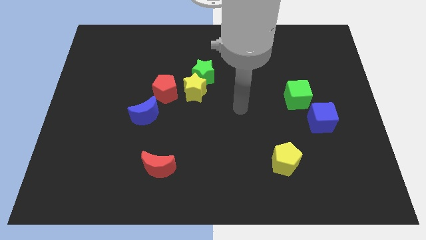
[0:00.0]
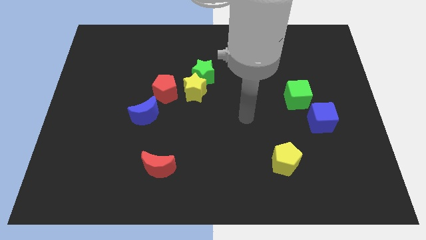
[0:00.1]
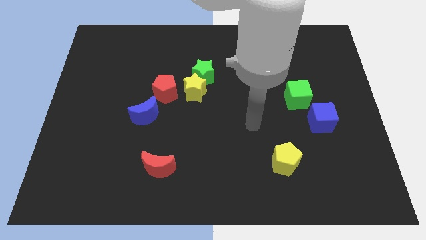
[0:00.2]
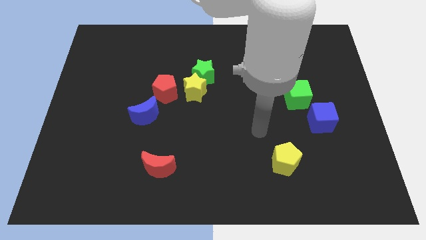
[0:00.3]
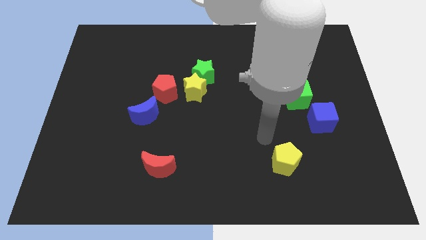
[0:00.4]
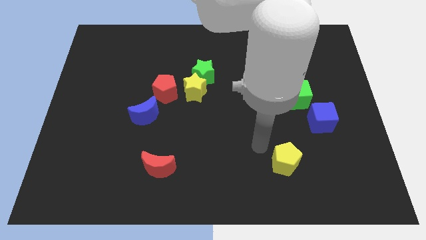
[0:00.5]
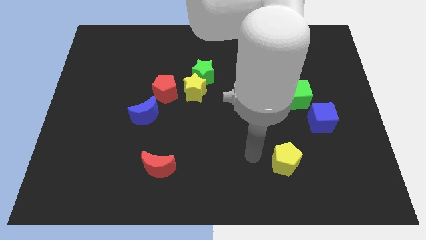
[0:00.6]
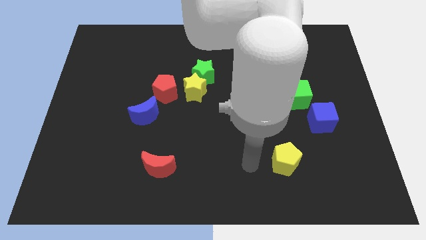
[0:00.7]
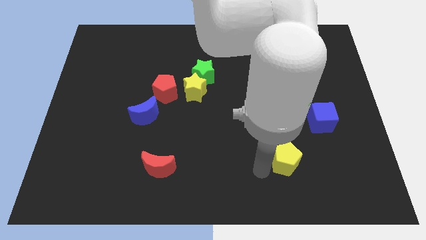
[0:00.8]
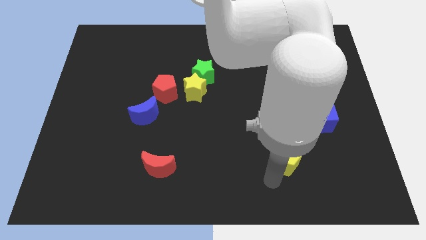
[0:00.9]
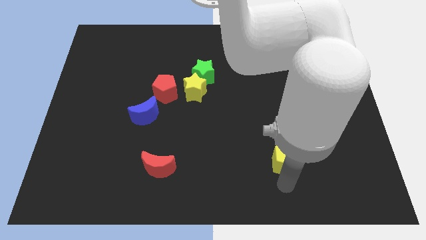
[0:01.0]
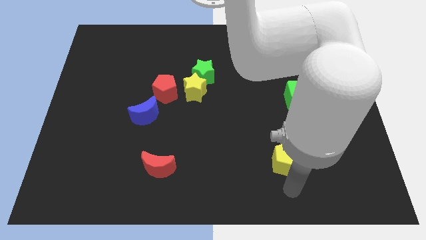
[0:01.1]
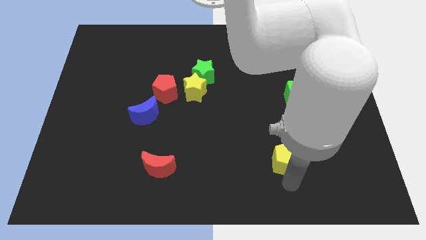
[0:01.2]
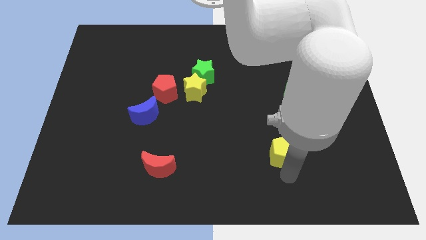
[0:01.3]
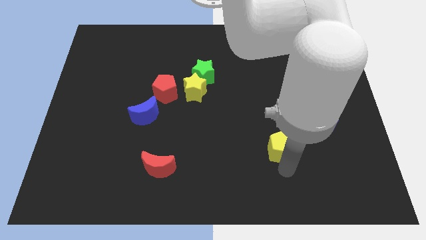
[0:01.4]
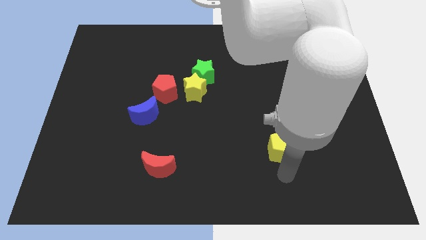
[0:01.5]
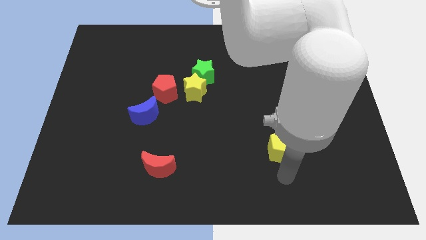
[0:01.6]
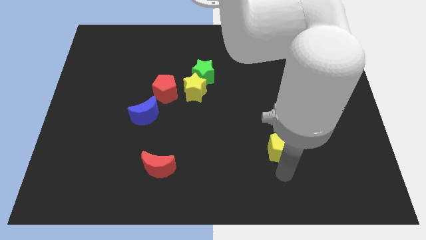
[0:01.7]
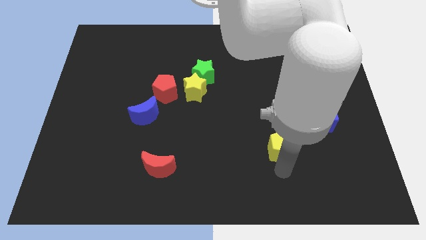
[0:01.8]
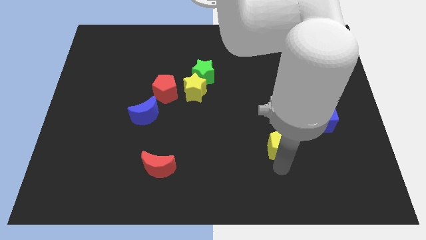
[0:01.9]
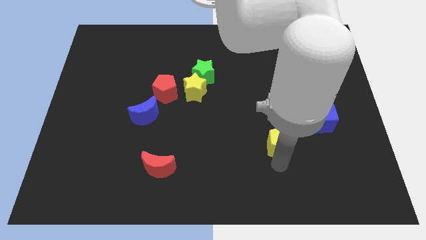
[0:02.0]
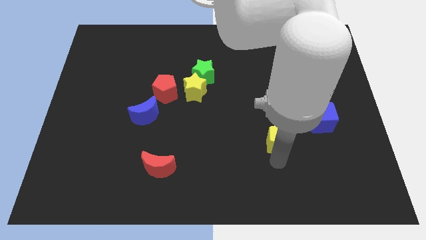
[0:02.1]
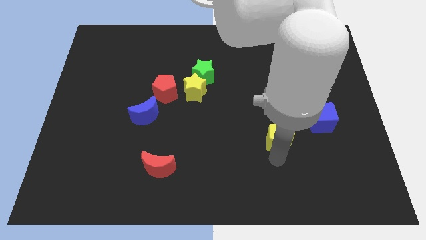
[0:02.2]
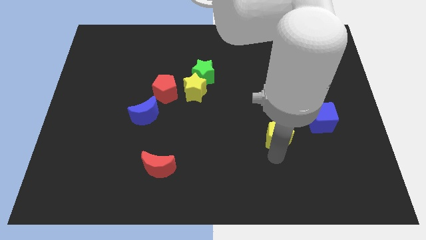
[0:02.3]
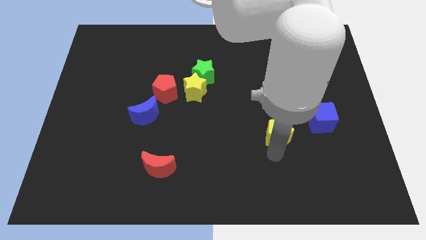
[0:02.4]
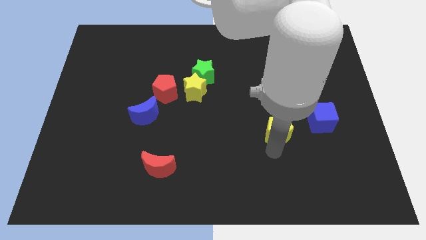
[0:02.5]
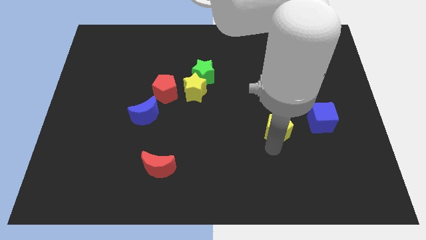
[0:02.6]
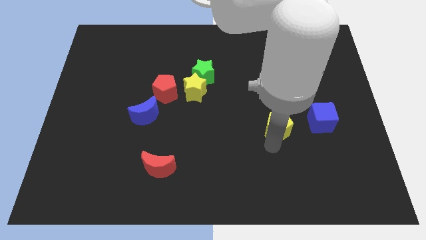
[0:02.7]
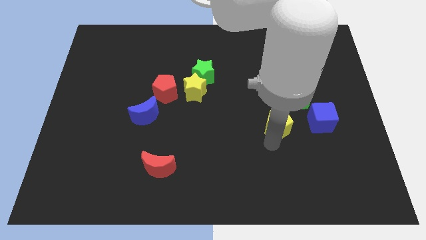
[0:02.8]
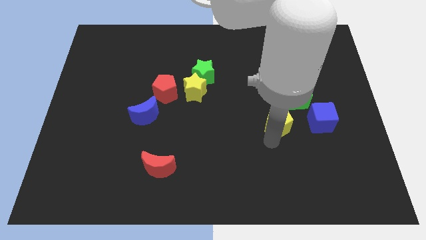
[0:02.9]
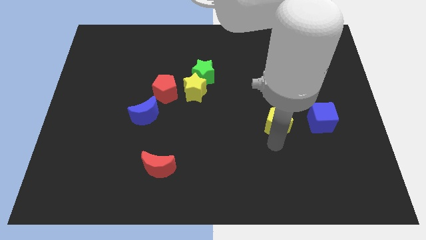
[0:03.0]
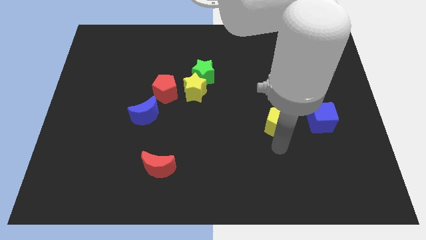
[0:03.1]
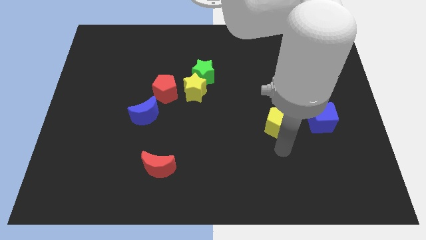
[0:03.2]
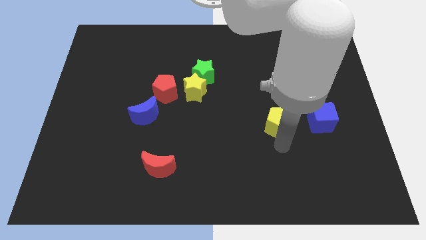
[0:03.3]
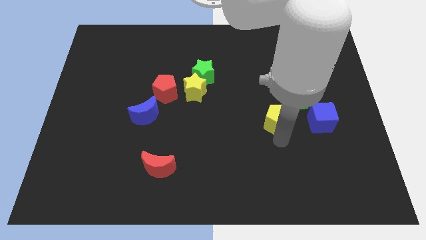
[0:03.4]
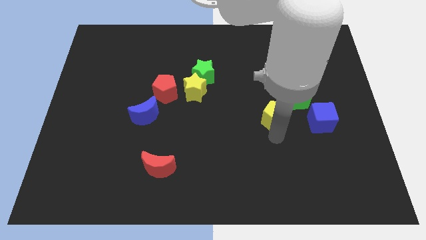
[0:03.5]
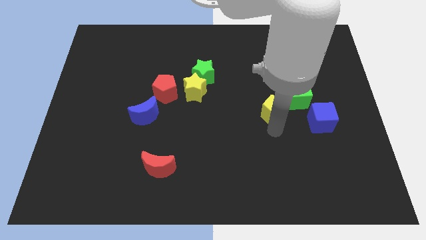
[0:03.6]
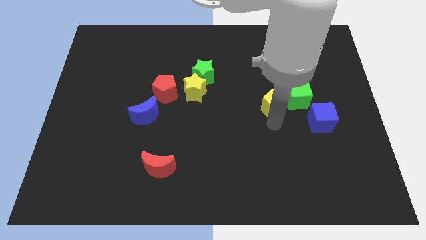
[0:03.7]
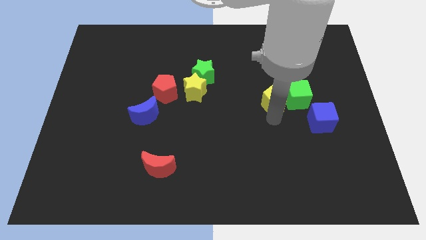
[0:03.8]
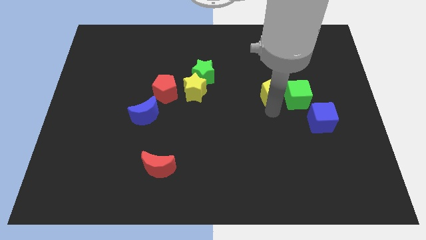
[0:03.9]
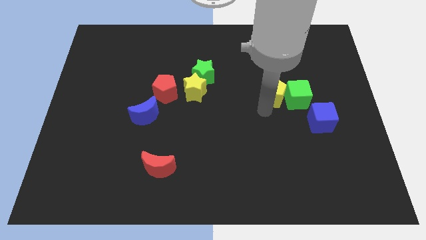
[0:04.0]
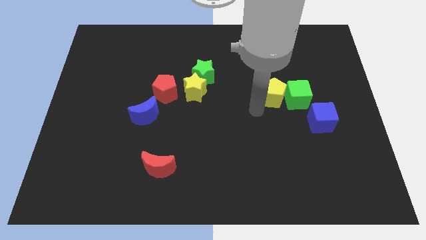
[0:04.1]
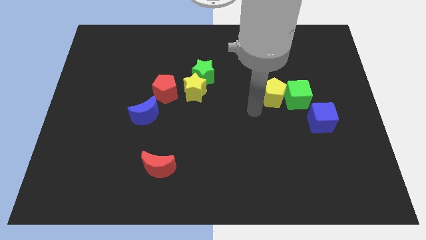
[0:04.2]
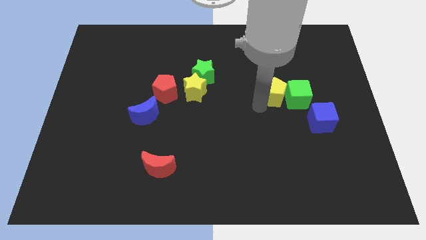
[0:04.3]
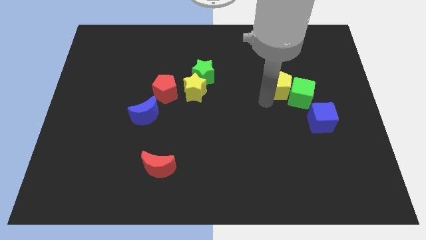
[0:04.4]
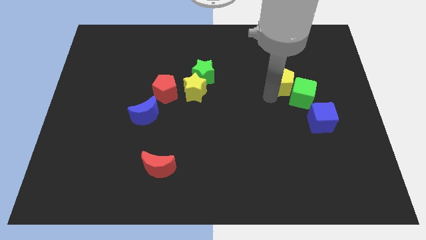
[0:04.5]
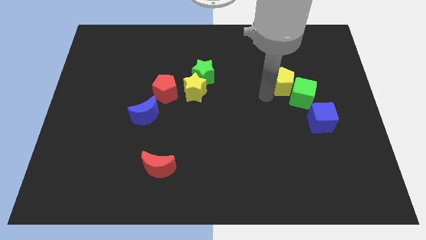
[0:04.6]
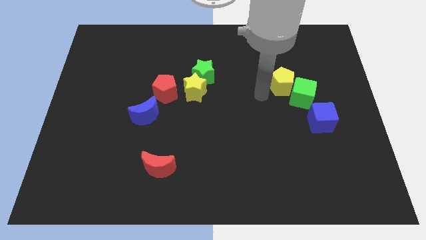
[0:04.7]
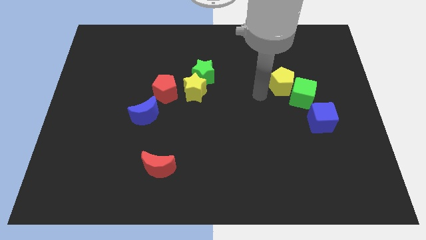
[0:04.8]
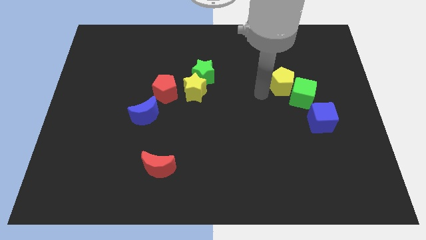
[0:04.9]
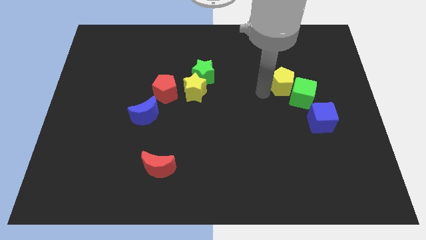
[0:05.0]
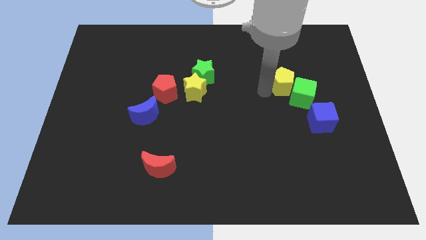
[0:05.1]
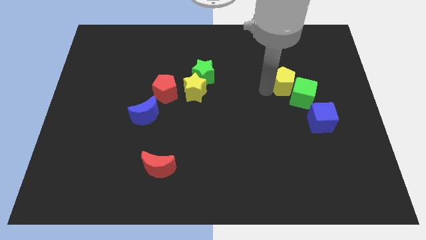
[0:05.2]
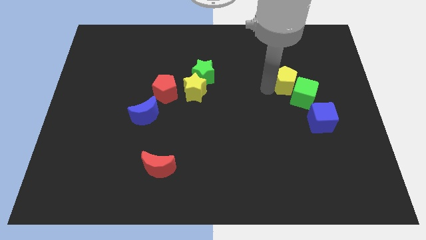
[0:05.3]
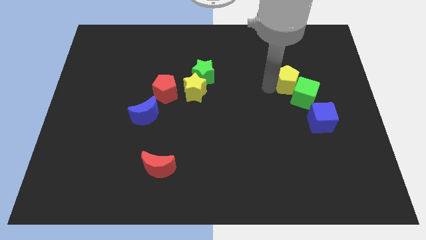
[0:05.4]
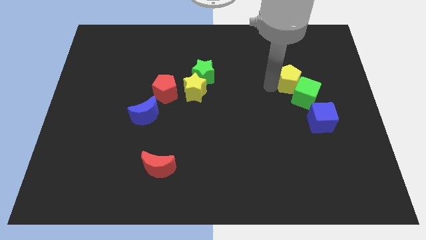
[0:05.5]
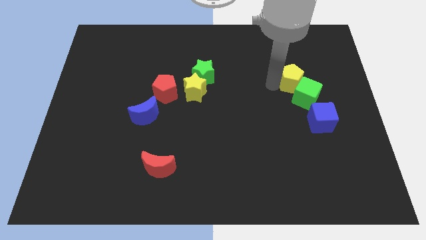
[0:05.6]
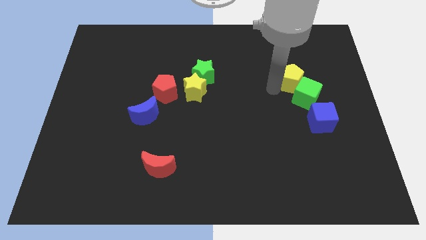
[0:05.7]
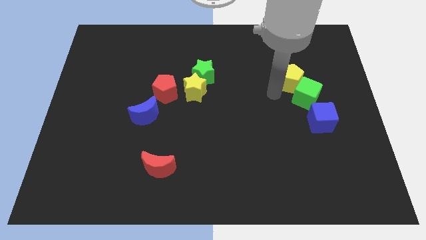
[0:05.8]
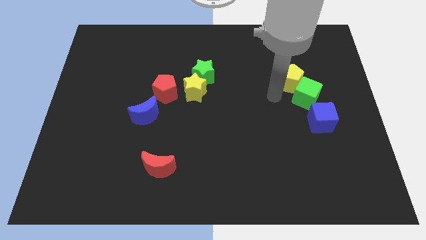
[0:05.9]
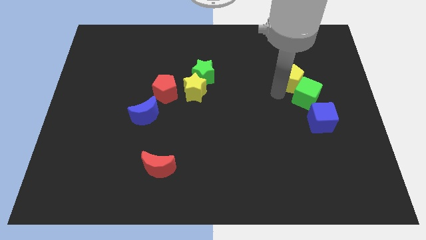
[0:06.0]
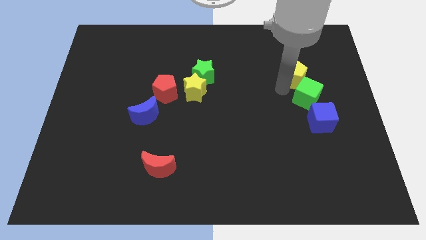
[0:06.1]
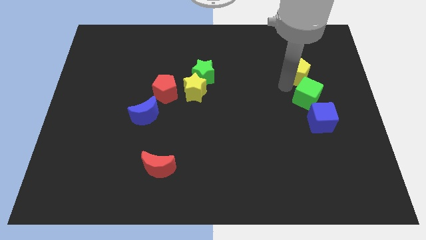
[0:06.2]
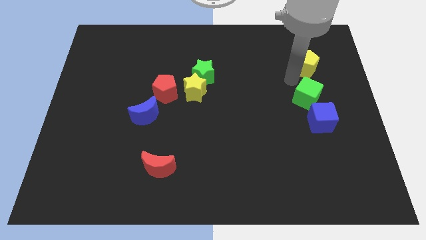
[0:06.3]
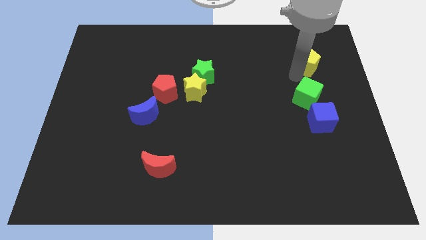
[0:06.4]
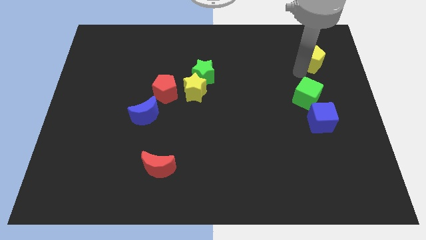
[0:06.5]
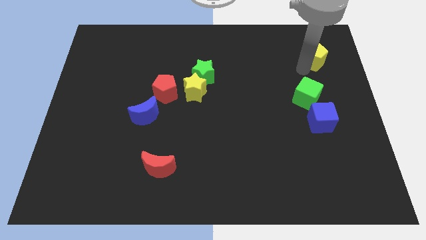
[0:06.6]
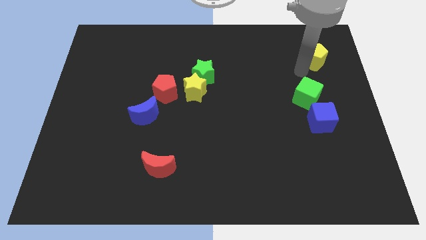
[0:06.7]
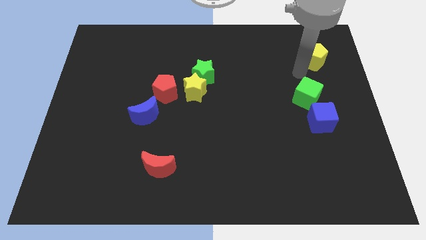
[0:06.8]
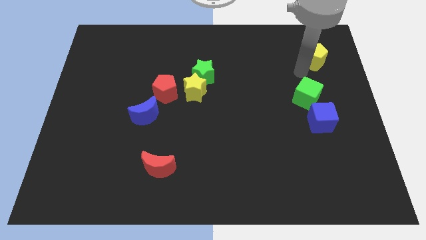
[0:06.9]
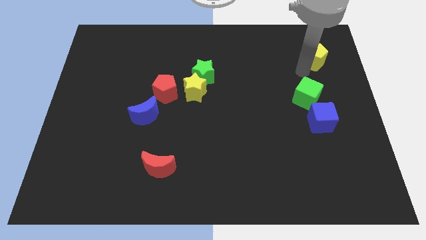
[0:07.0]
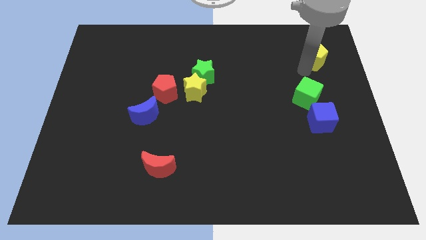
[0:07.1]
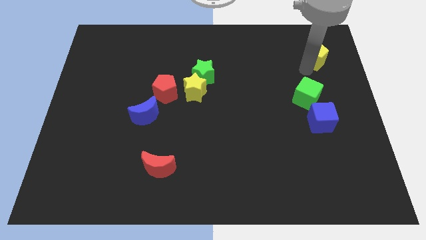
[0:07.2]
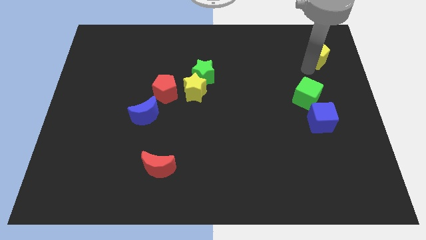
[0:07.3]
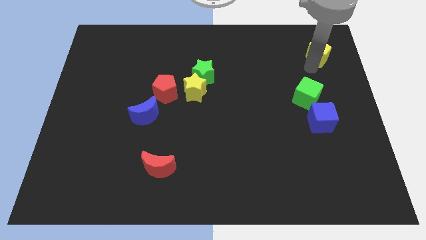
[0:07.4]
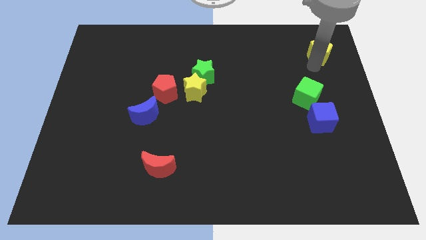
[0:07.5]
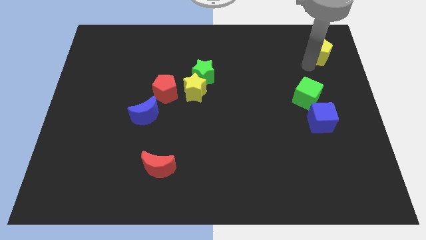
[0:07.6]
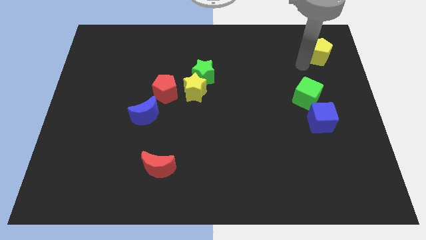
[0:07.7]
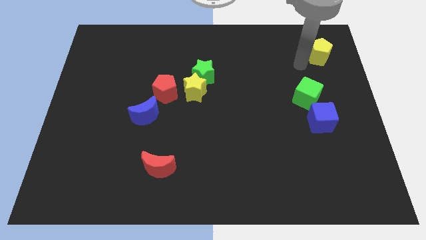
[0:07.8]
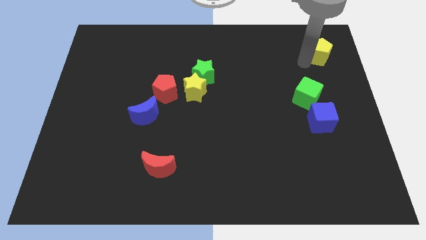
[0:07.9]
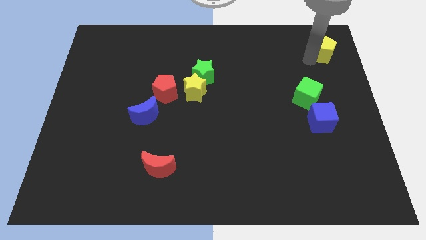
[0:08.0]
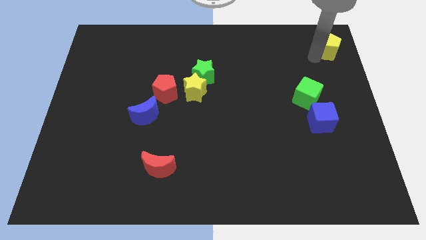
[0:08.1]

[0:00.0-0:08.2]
push the yellow pentagon to the top right corner
